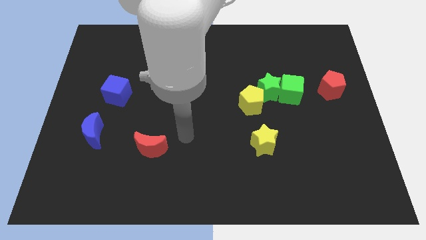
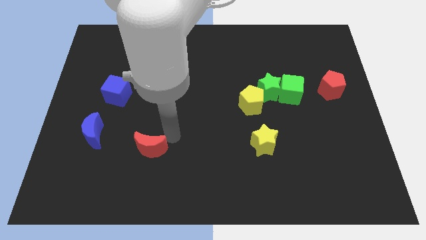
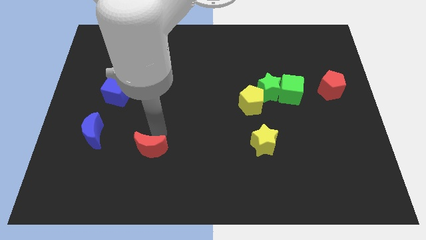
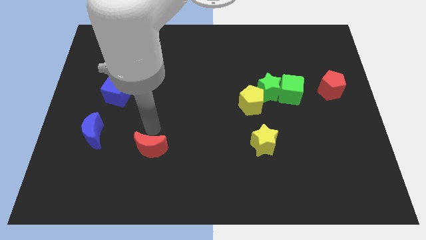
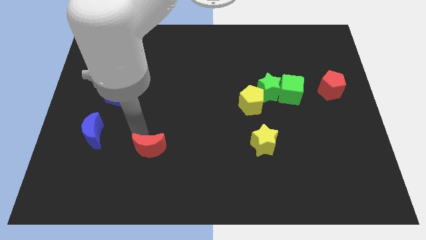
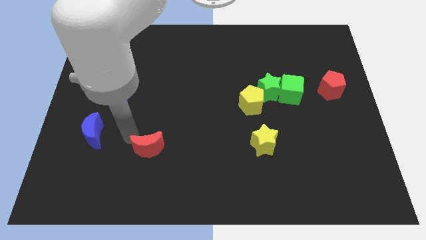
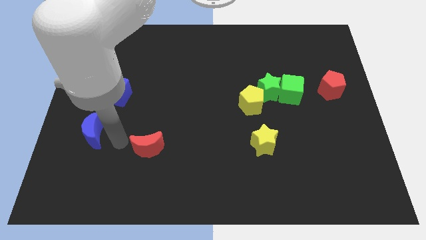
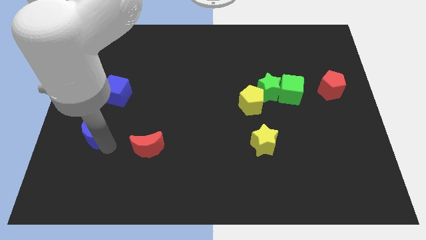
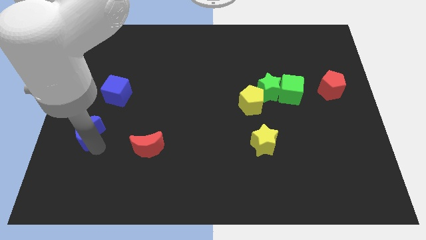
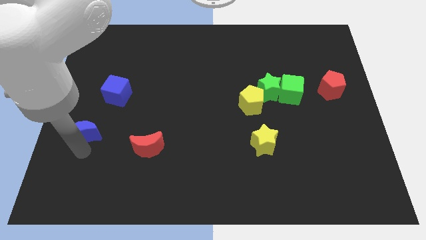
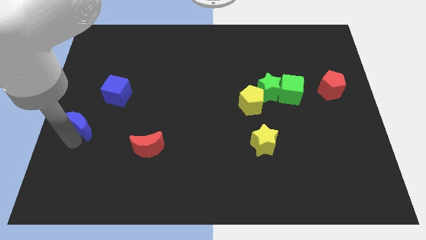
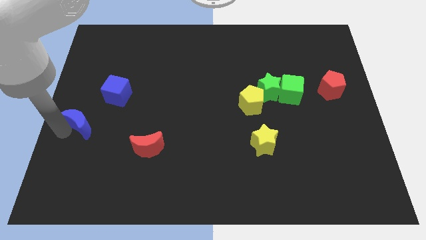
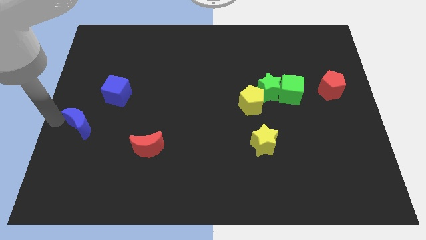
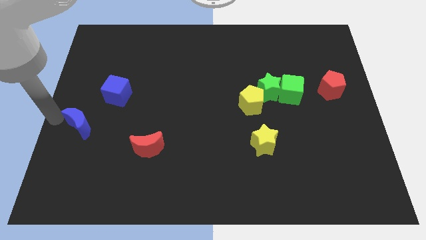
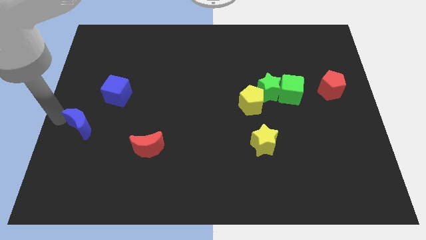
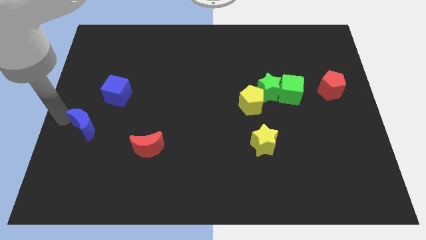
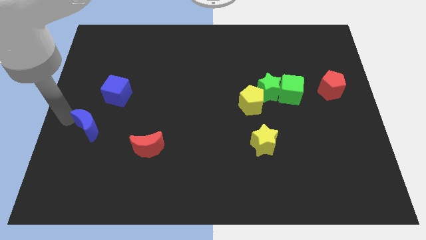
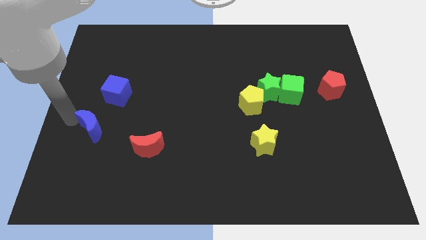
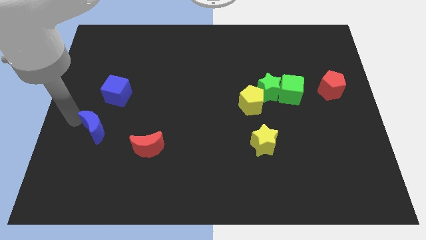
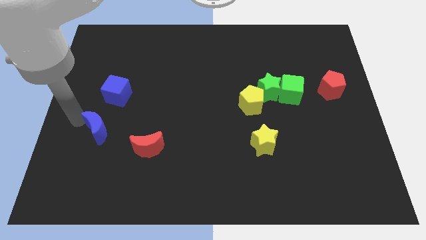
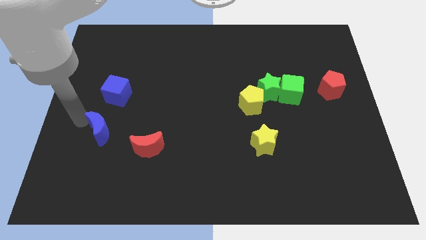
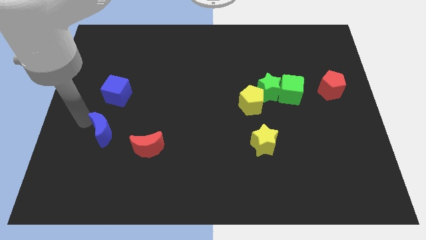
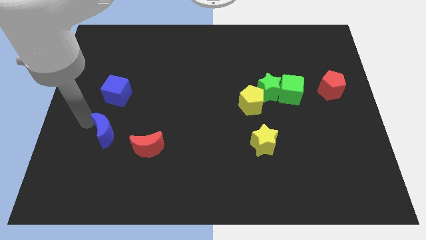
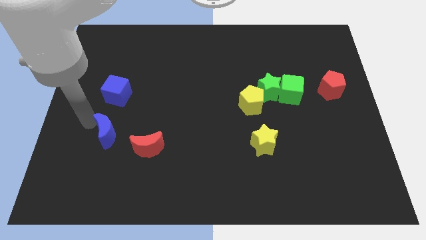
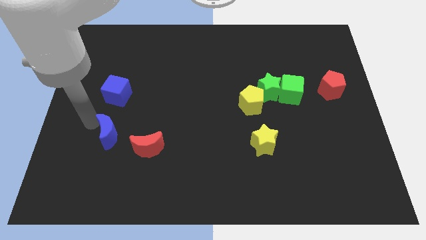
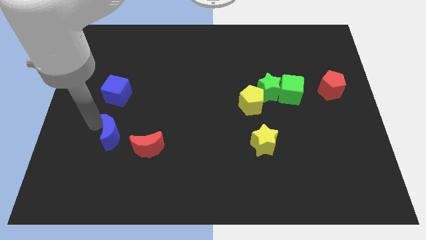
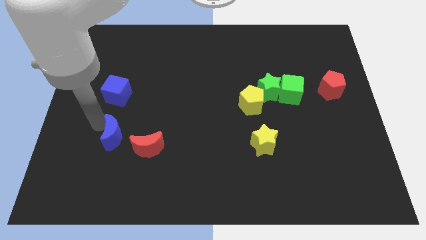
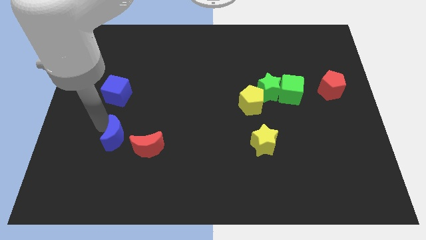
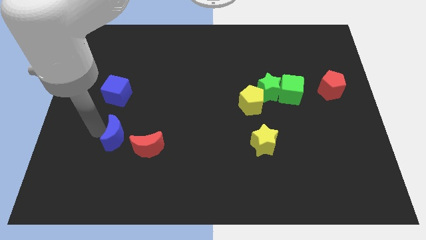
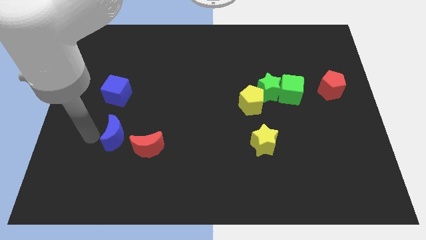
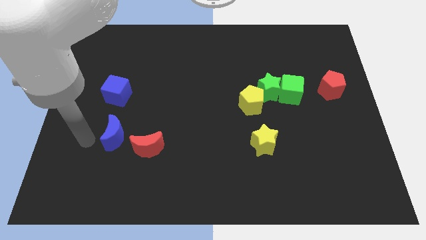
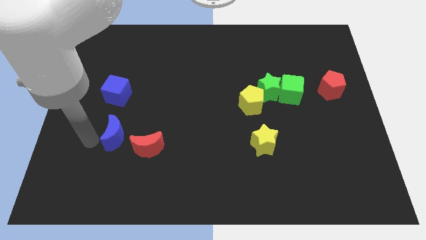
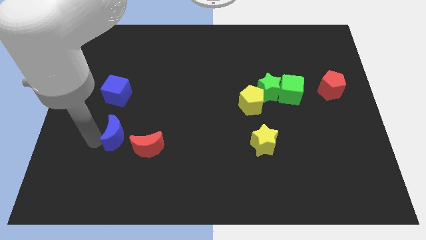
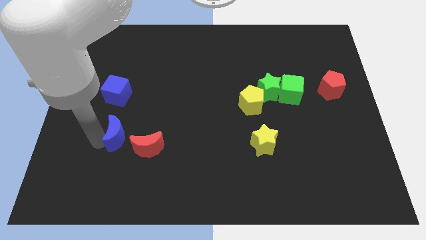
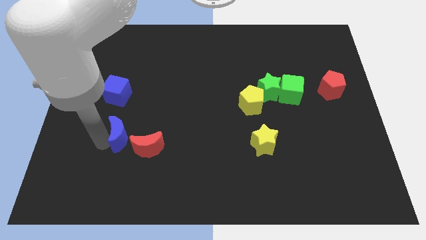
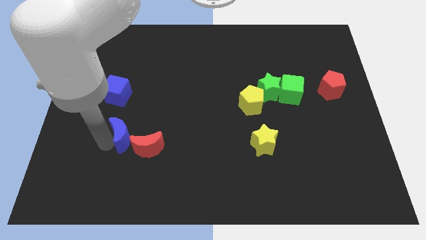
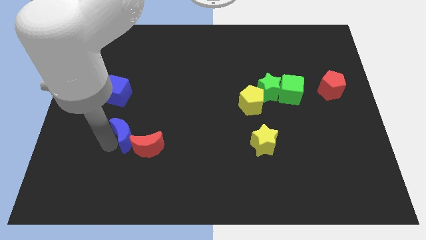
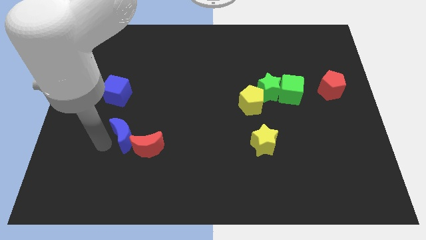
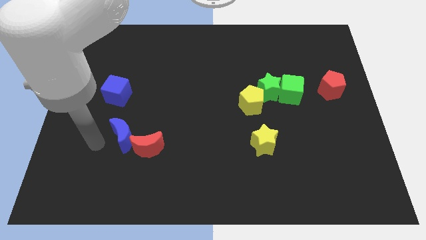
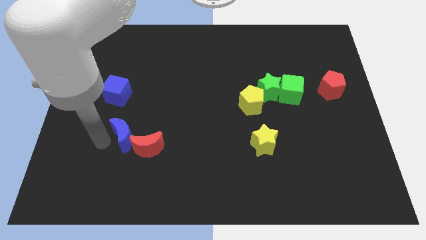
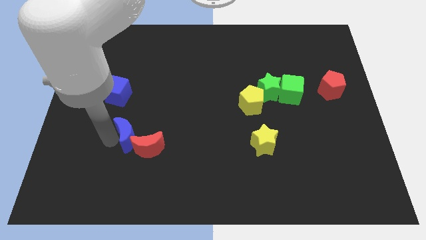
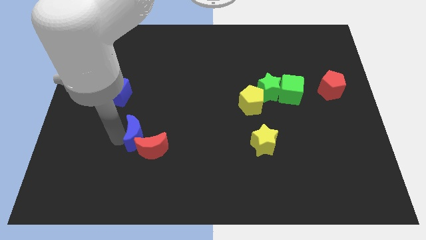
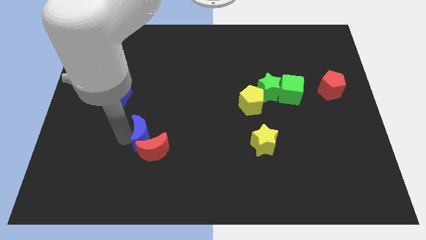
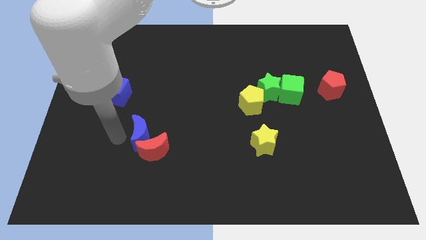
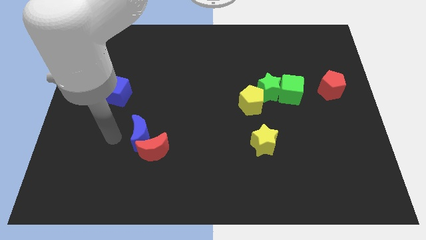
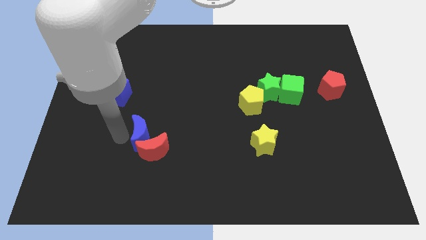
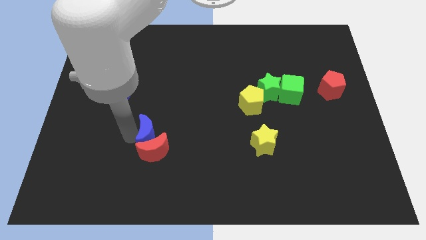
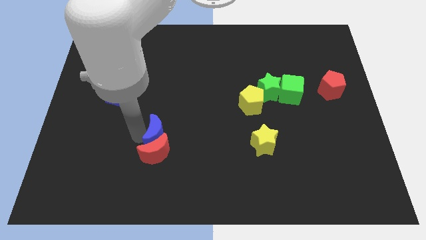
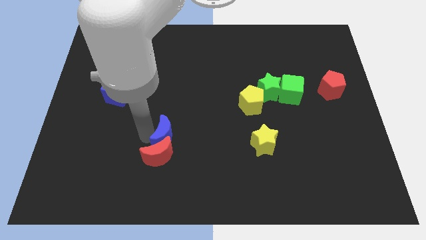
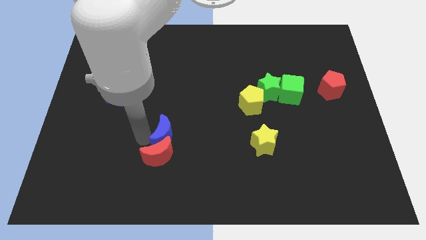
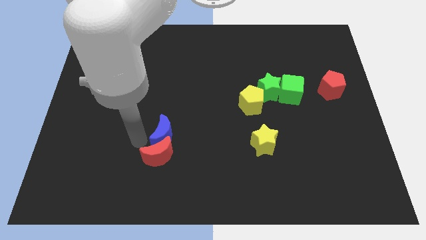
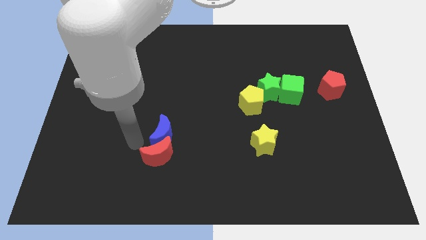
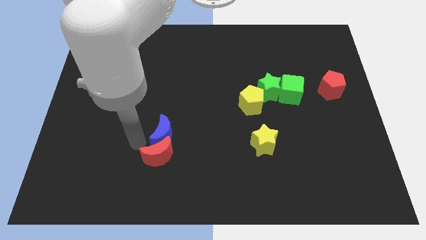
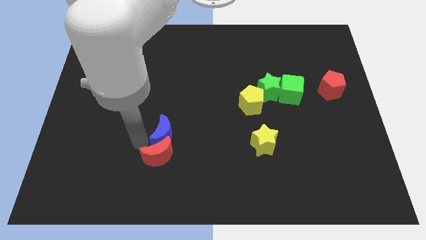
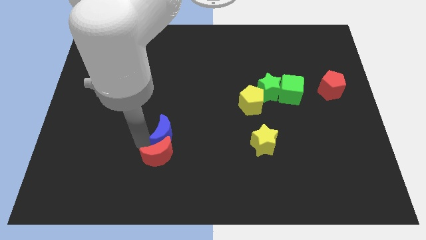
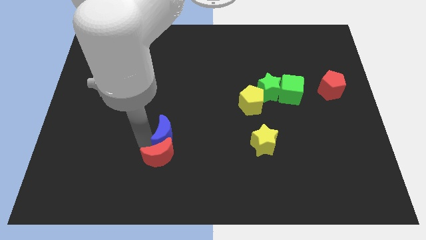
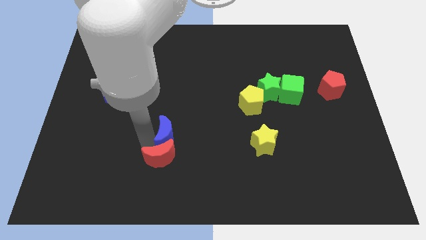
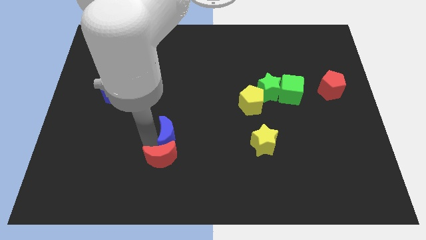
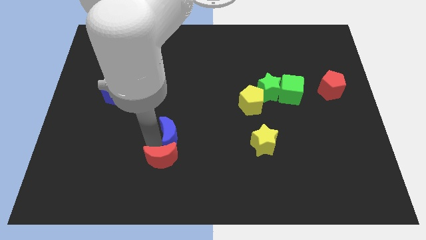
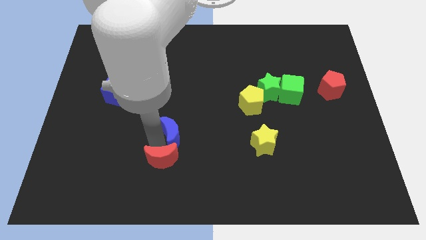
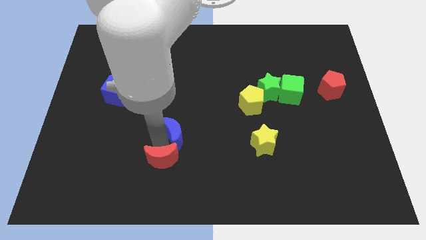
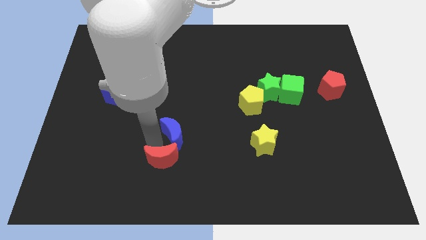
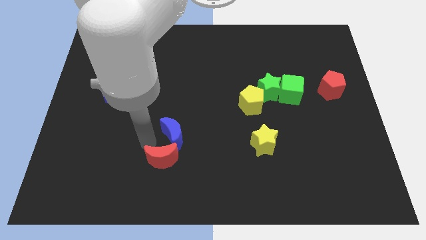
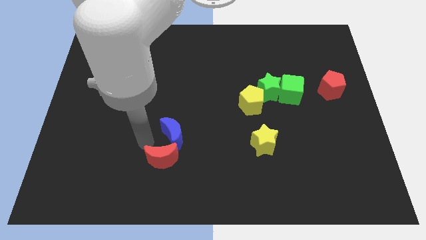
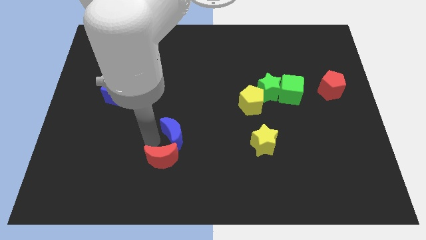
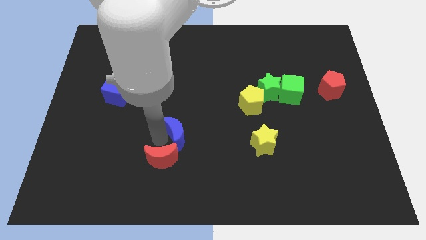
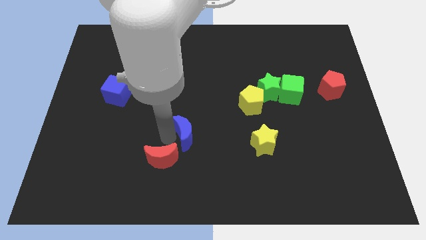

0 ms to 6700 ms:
push the blue moon right

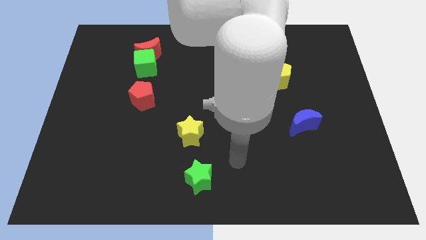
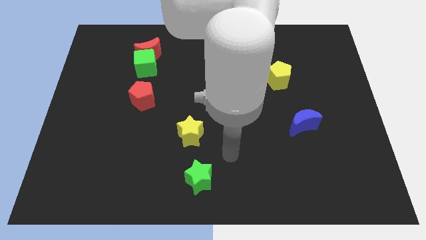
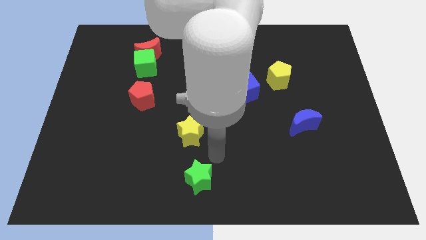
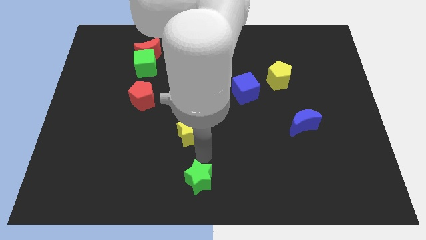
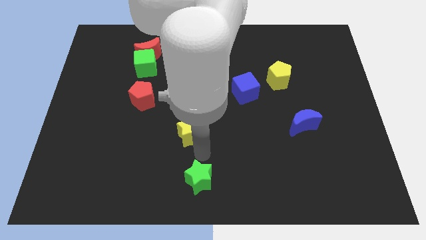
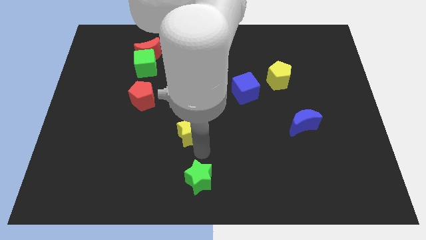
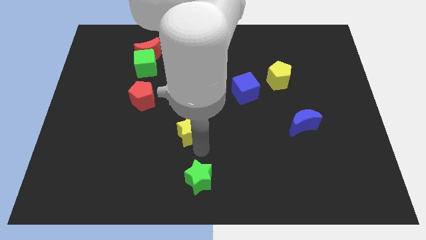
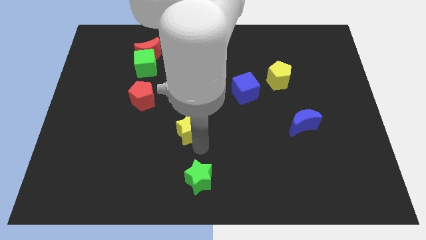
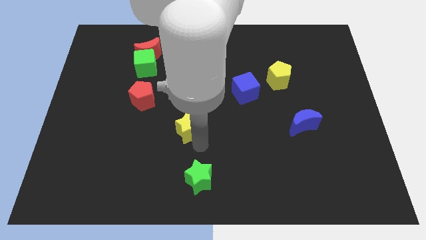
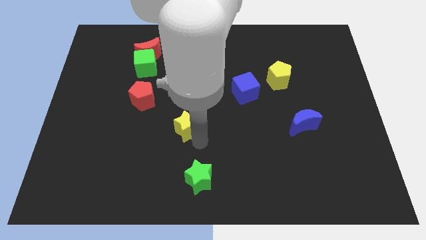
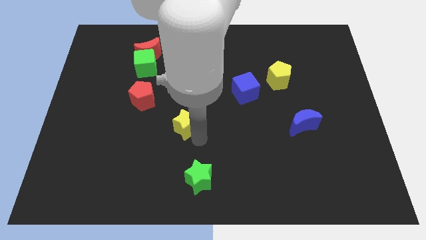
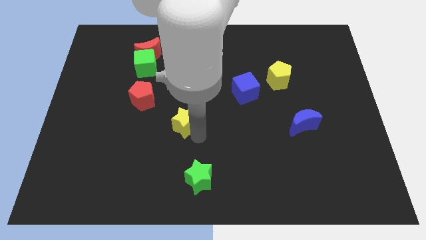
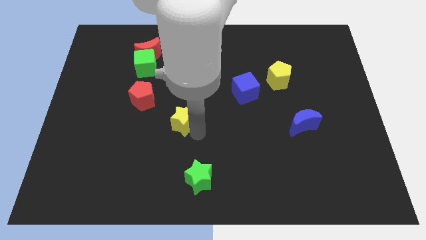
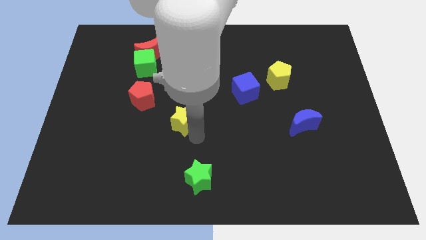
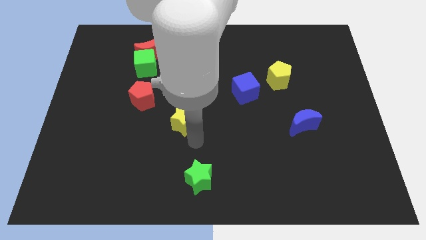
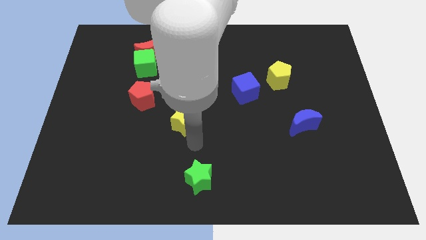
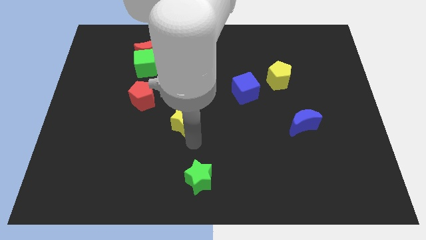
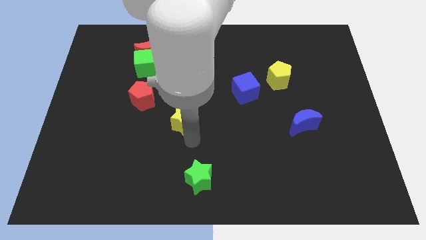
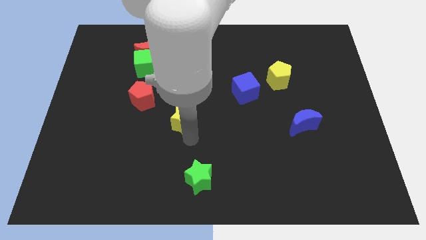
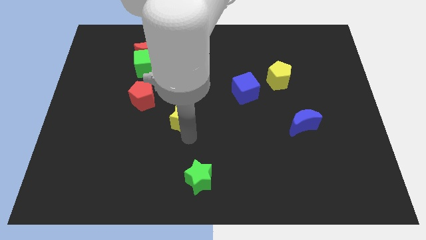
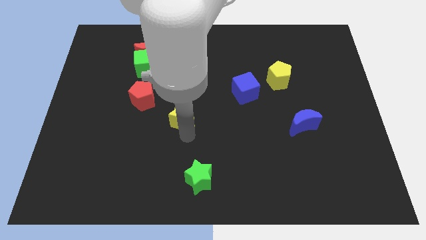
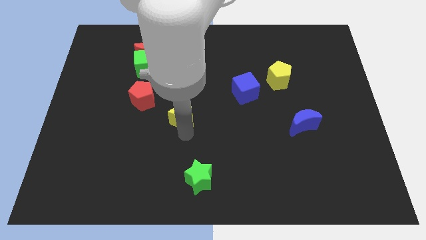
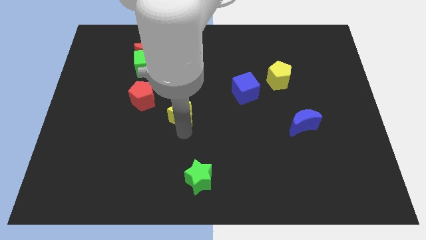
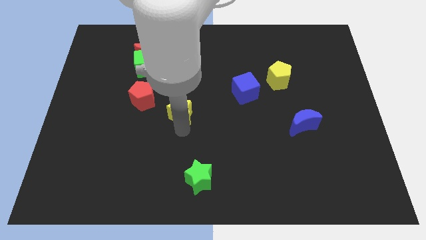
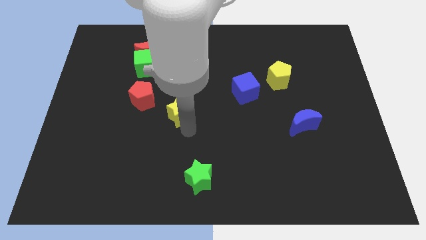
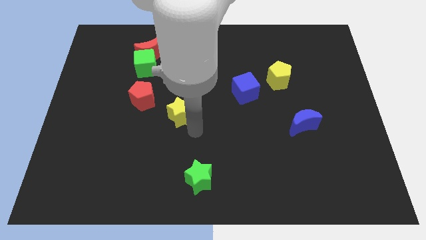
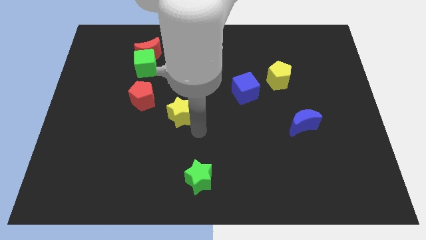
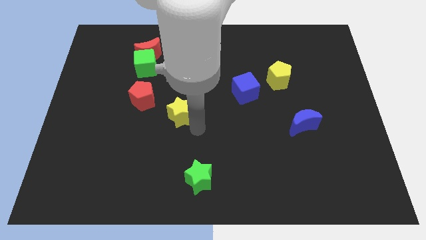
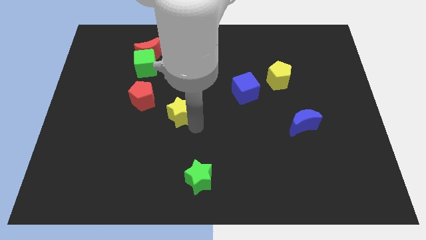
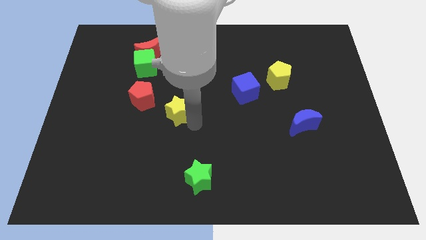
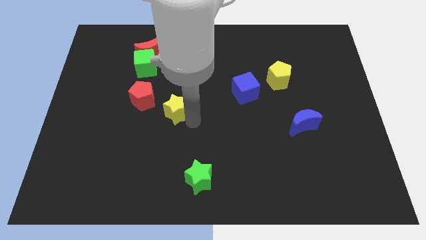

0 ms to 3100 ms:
slightly slide the yellow star upwards and then left
